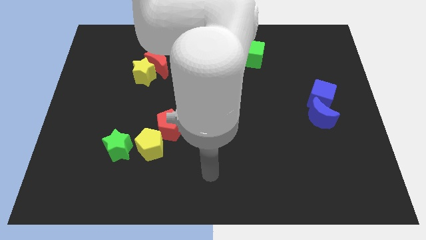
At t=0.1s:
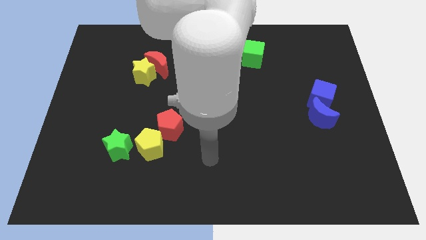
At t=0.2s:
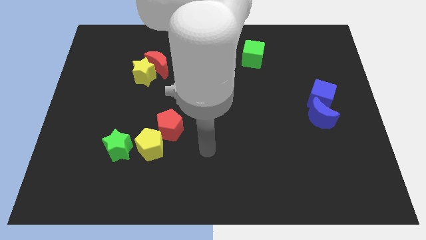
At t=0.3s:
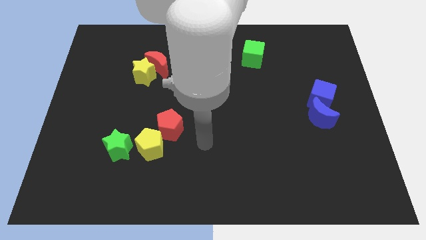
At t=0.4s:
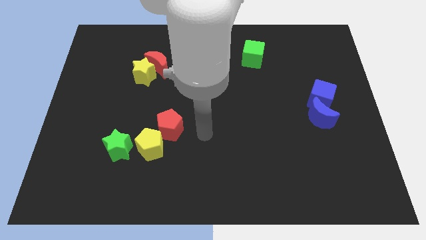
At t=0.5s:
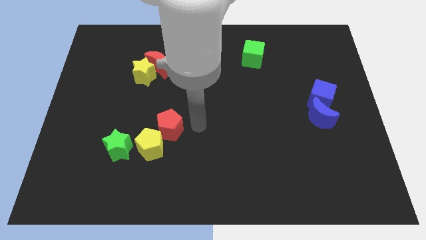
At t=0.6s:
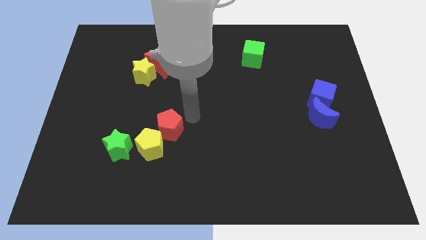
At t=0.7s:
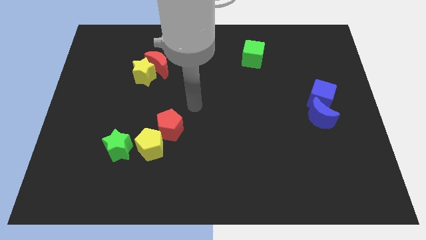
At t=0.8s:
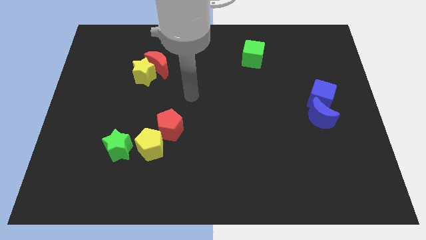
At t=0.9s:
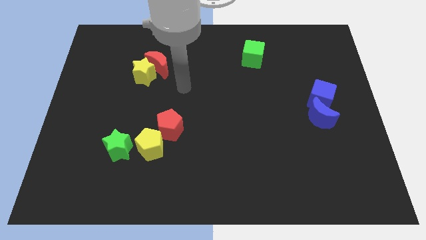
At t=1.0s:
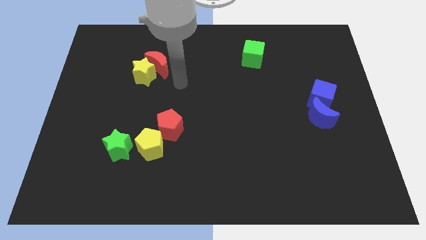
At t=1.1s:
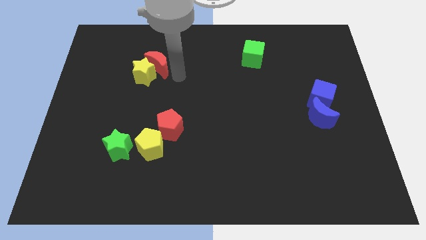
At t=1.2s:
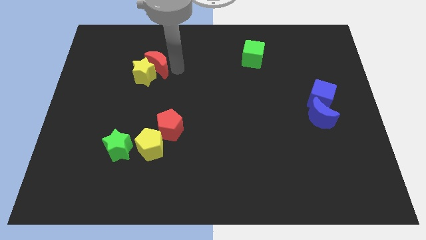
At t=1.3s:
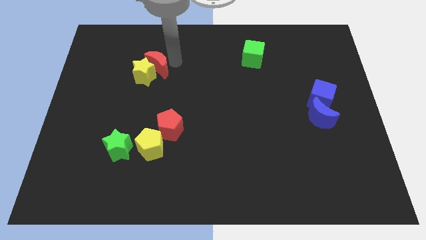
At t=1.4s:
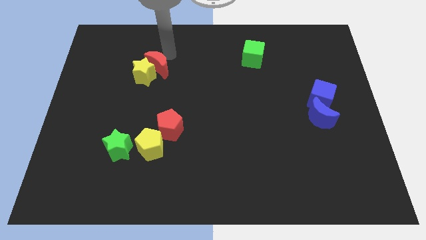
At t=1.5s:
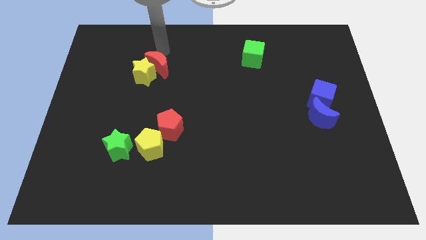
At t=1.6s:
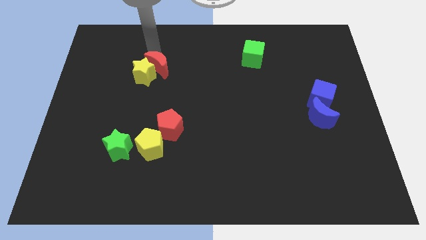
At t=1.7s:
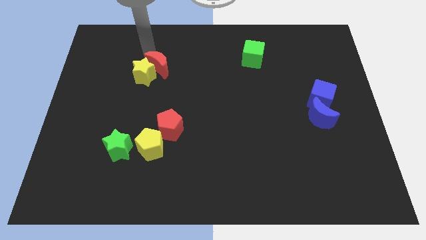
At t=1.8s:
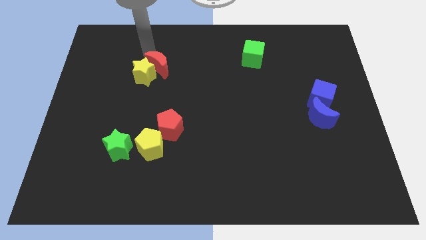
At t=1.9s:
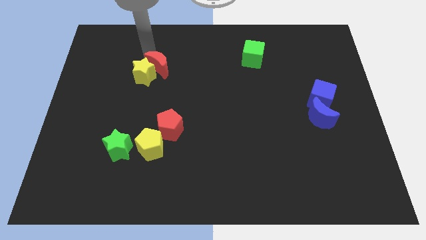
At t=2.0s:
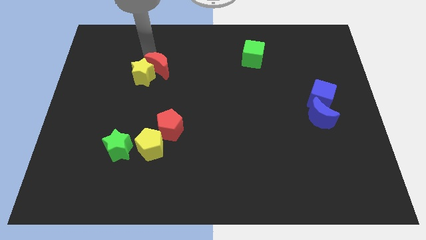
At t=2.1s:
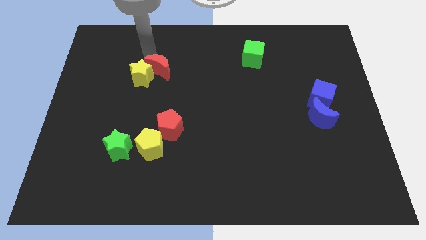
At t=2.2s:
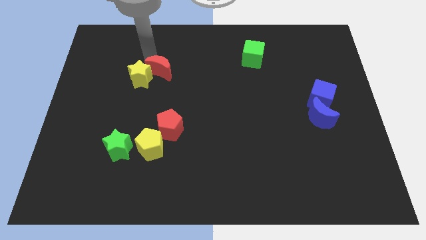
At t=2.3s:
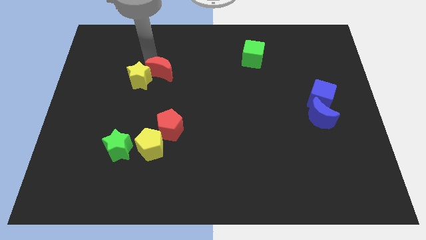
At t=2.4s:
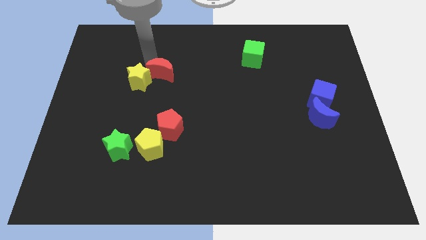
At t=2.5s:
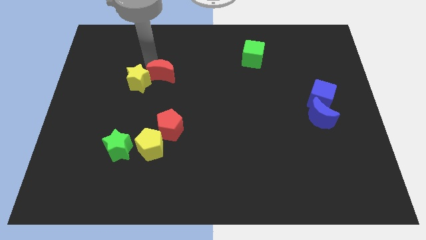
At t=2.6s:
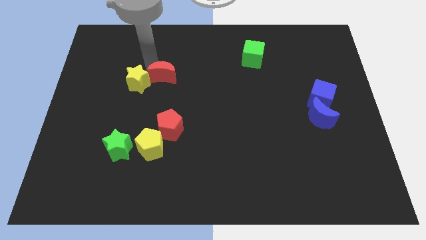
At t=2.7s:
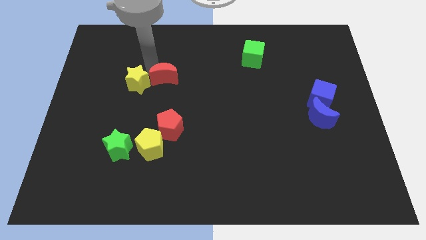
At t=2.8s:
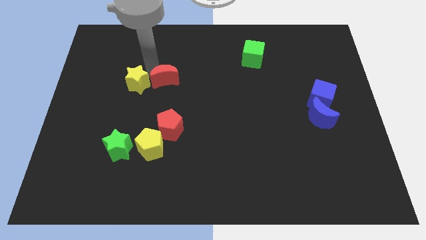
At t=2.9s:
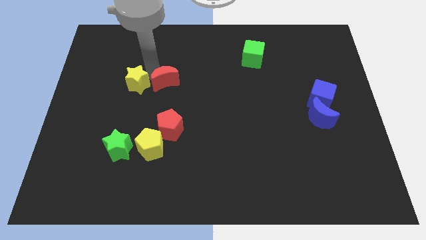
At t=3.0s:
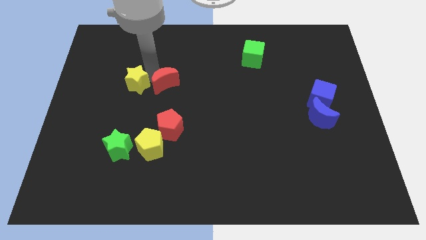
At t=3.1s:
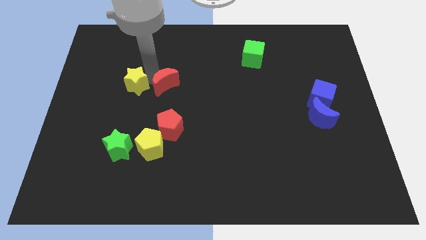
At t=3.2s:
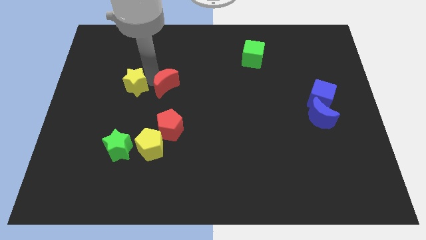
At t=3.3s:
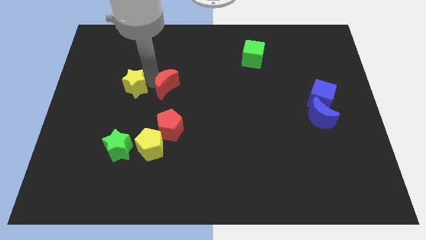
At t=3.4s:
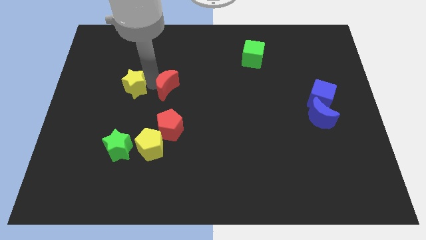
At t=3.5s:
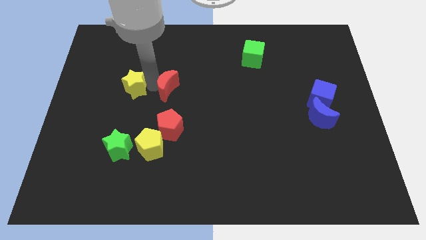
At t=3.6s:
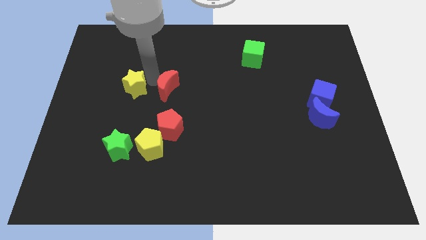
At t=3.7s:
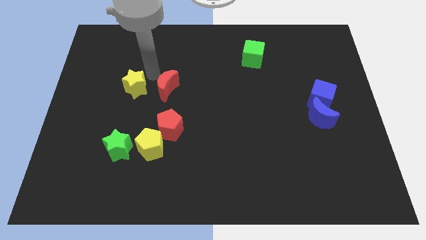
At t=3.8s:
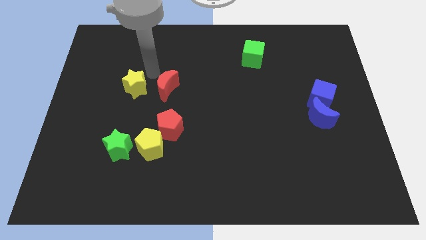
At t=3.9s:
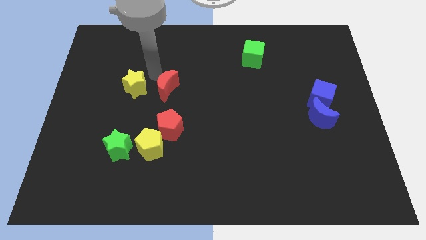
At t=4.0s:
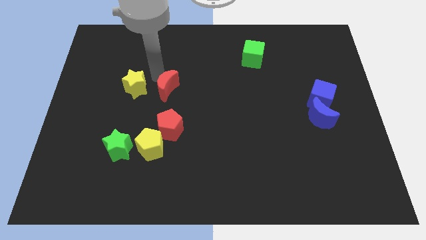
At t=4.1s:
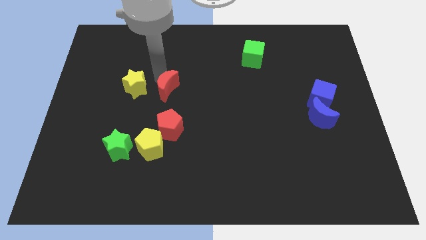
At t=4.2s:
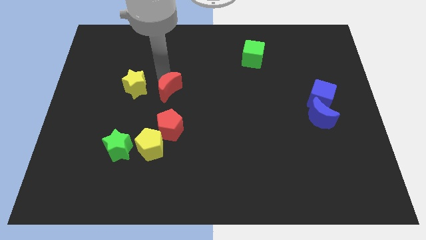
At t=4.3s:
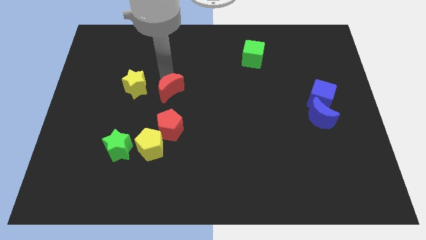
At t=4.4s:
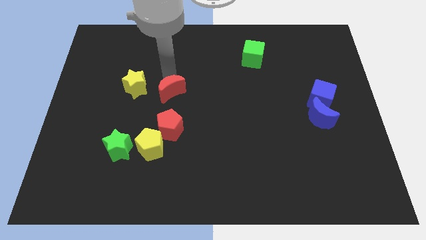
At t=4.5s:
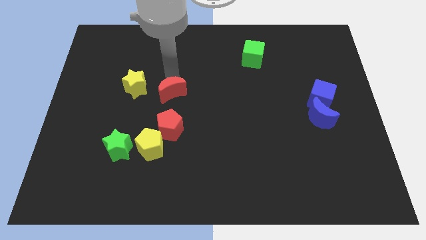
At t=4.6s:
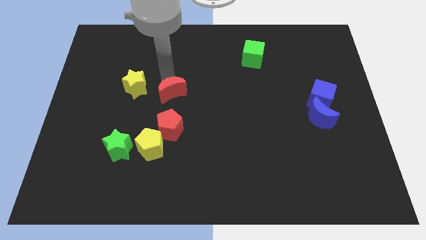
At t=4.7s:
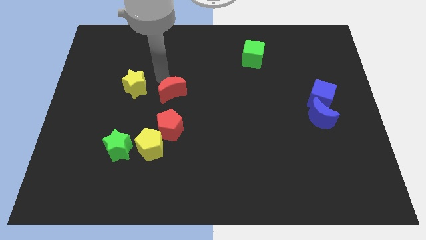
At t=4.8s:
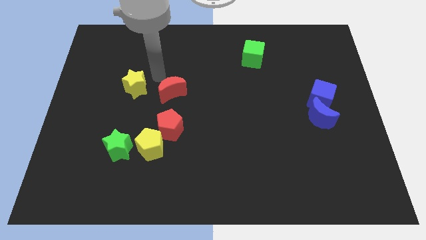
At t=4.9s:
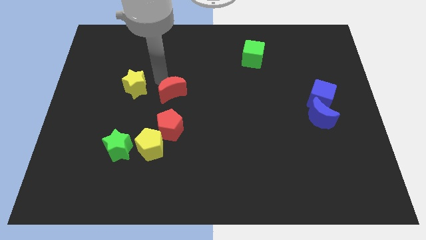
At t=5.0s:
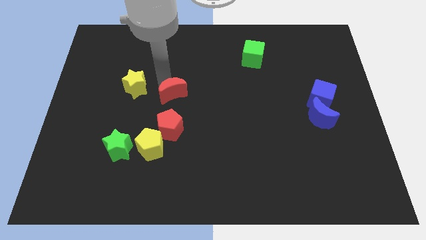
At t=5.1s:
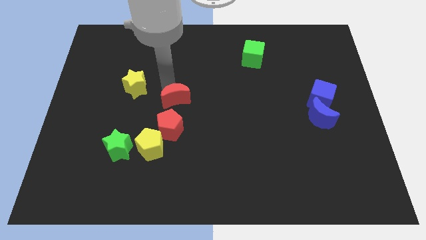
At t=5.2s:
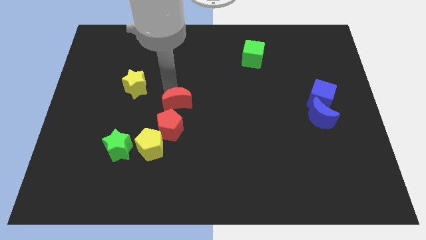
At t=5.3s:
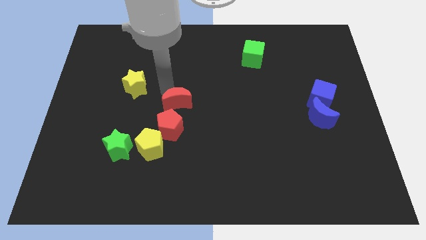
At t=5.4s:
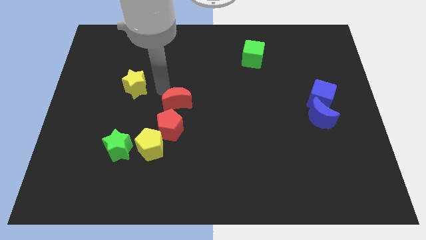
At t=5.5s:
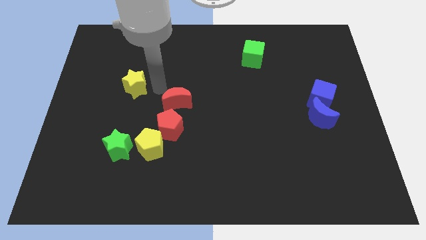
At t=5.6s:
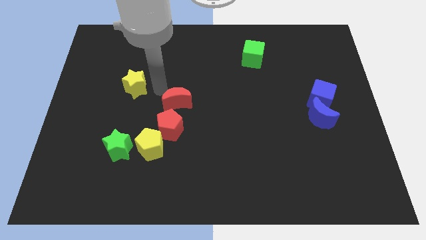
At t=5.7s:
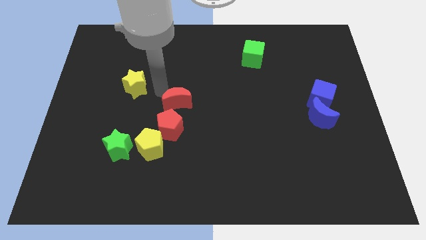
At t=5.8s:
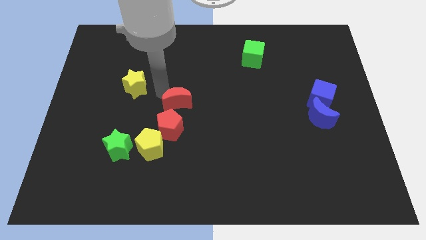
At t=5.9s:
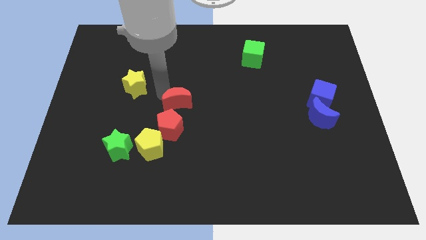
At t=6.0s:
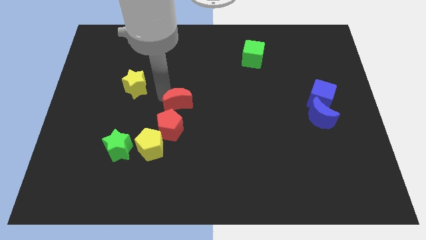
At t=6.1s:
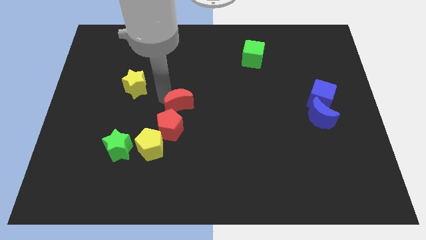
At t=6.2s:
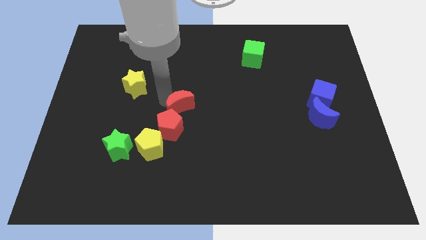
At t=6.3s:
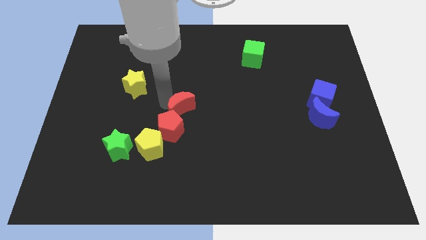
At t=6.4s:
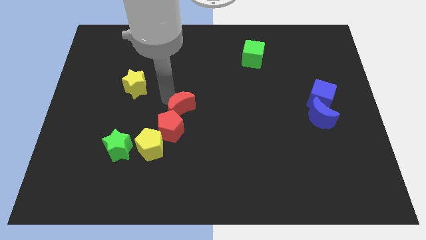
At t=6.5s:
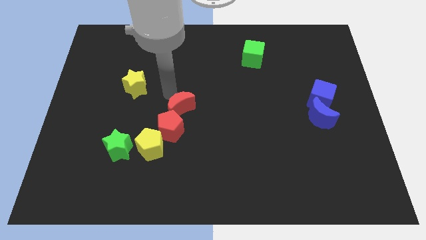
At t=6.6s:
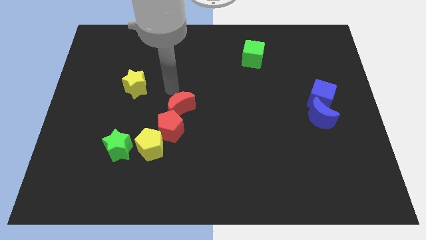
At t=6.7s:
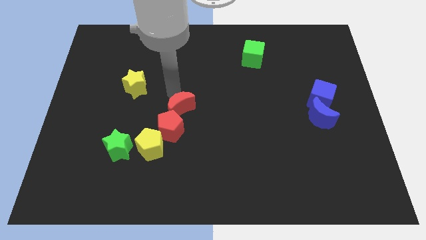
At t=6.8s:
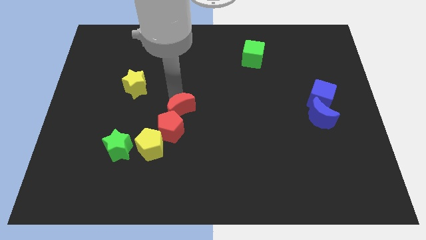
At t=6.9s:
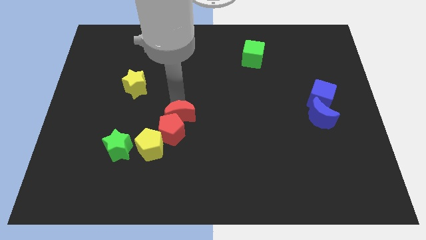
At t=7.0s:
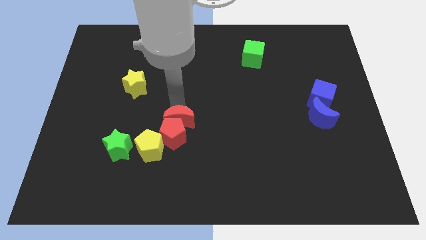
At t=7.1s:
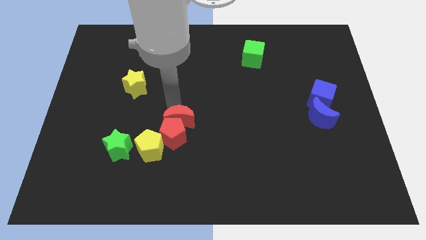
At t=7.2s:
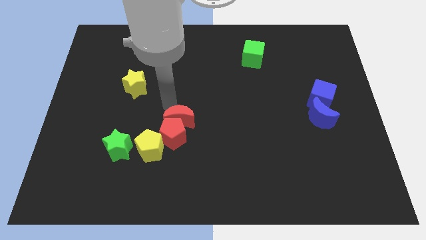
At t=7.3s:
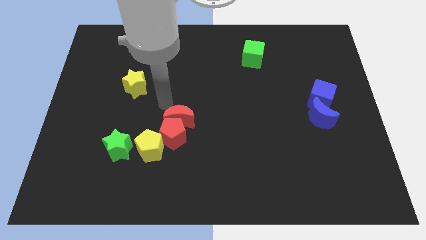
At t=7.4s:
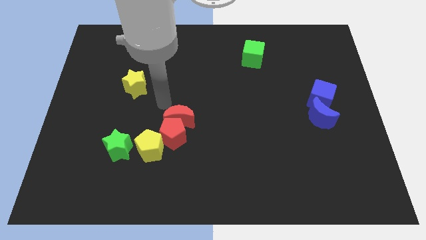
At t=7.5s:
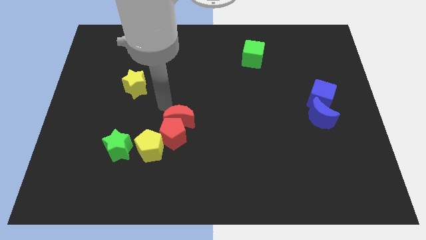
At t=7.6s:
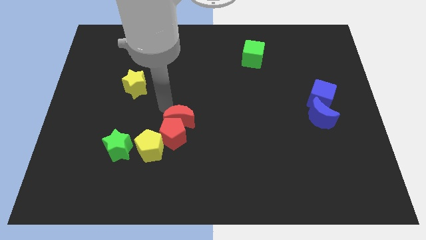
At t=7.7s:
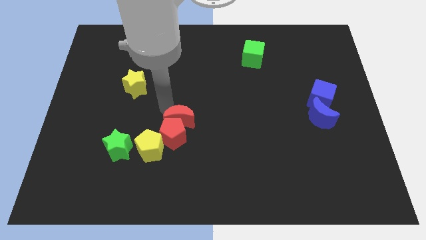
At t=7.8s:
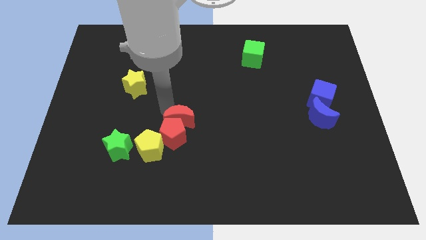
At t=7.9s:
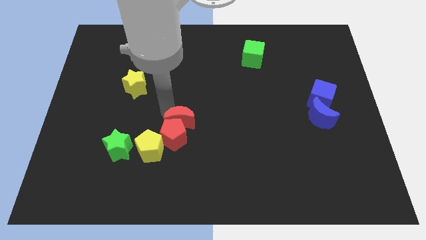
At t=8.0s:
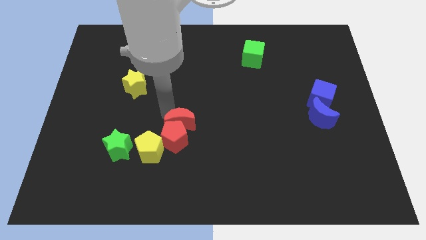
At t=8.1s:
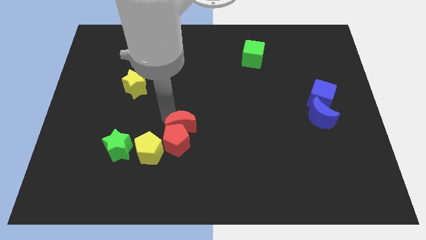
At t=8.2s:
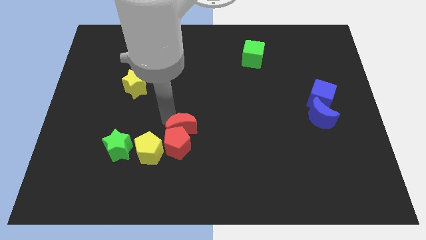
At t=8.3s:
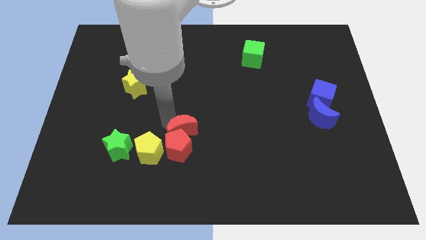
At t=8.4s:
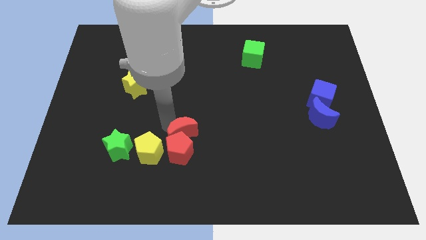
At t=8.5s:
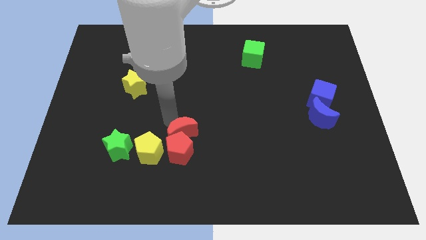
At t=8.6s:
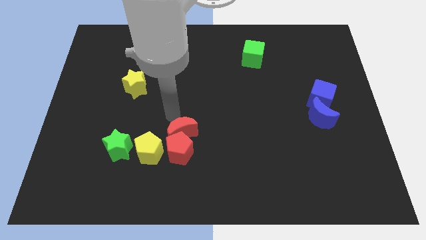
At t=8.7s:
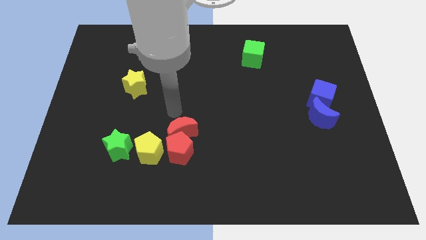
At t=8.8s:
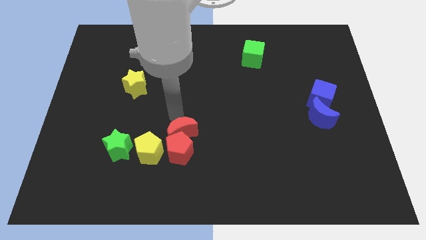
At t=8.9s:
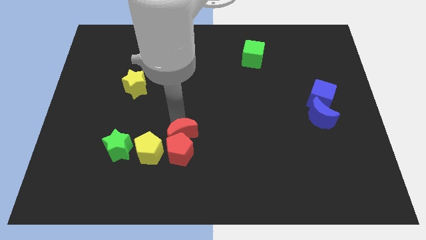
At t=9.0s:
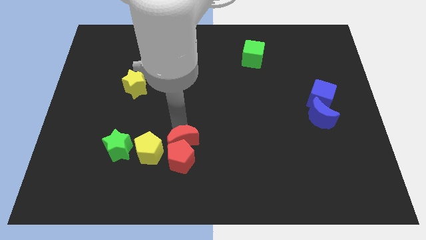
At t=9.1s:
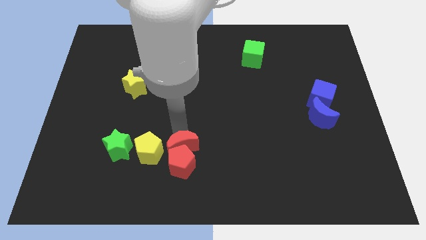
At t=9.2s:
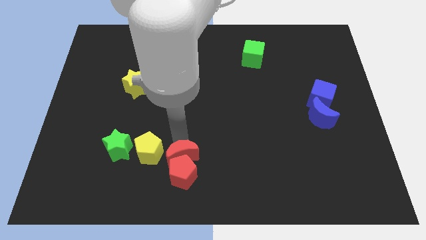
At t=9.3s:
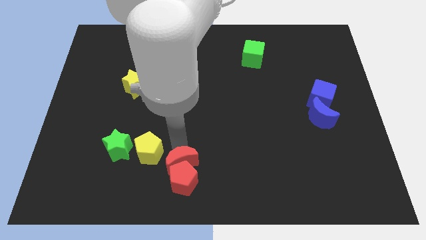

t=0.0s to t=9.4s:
slide the red moon to the bottom side
